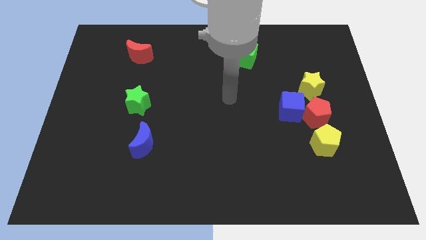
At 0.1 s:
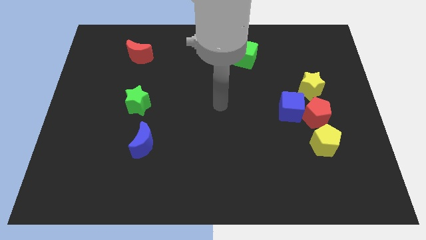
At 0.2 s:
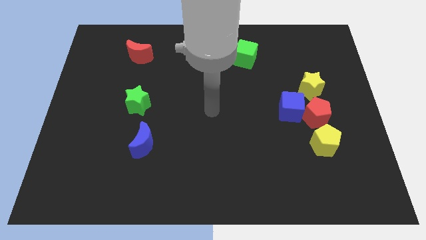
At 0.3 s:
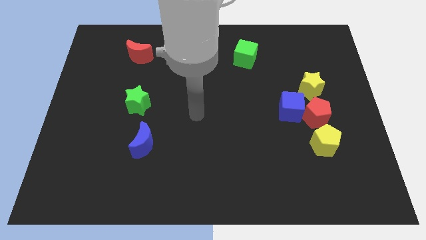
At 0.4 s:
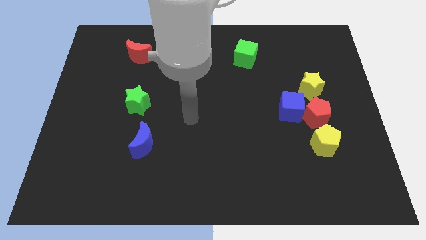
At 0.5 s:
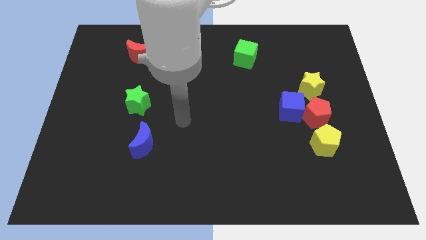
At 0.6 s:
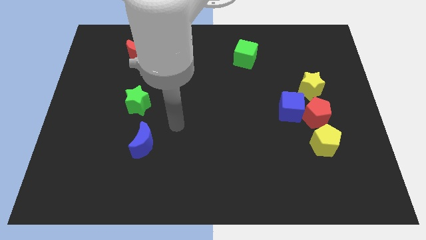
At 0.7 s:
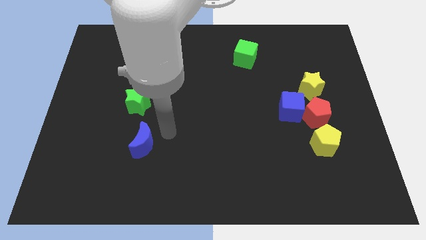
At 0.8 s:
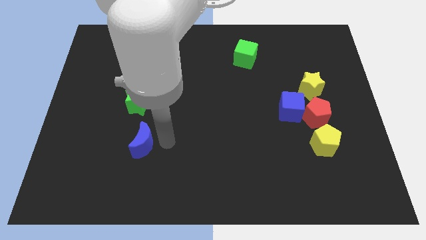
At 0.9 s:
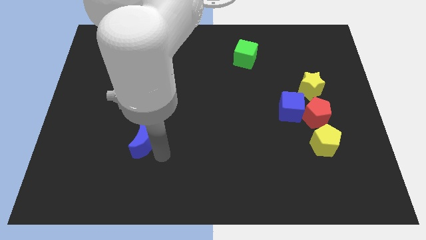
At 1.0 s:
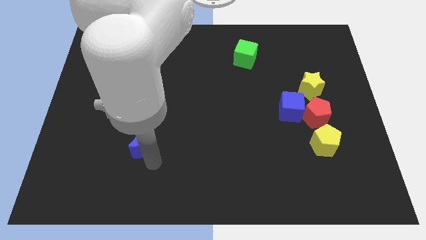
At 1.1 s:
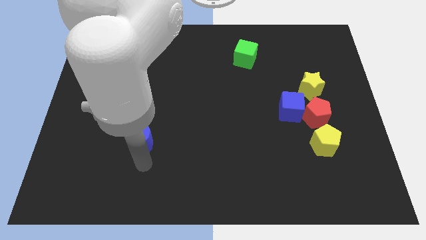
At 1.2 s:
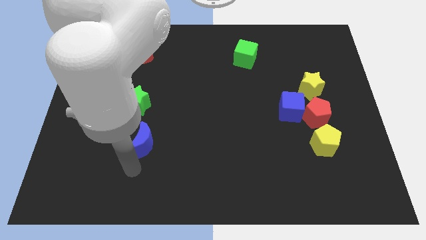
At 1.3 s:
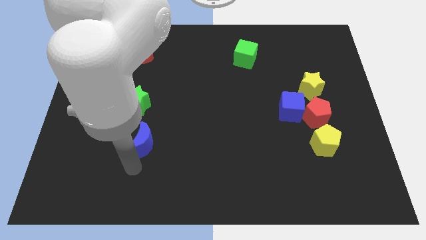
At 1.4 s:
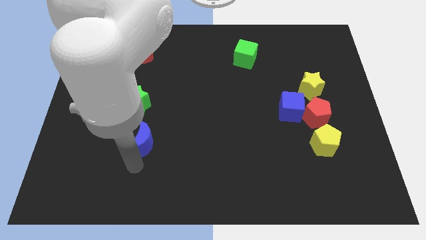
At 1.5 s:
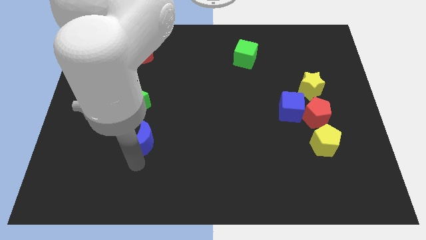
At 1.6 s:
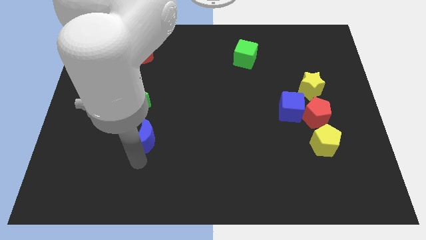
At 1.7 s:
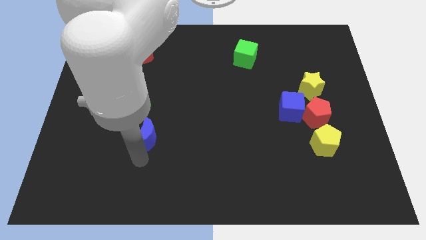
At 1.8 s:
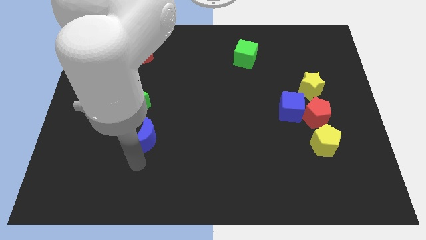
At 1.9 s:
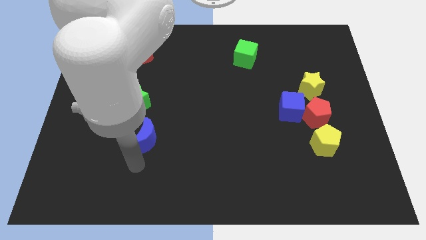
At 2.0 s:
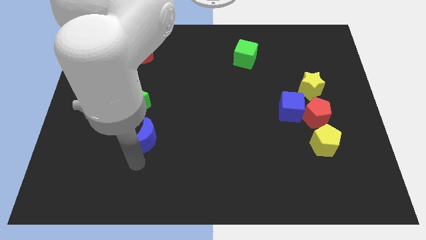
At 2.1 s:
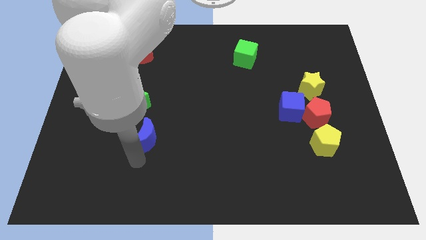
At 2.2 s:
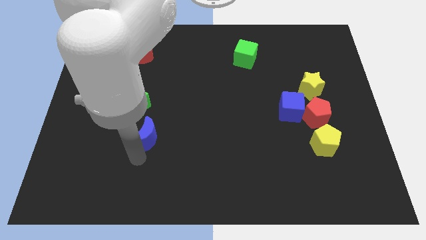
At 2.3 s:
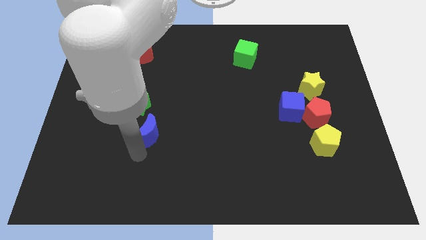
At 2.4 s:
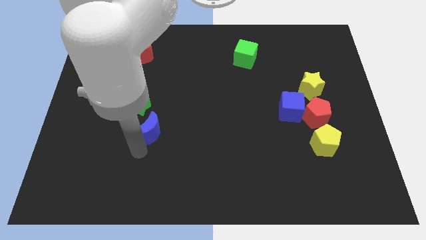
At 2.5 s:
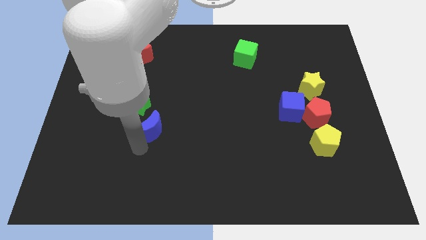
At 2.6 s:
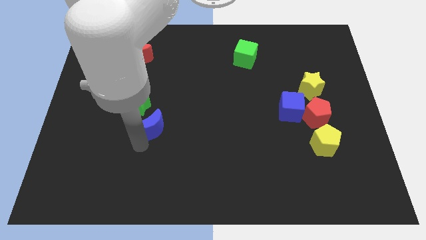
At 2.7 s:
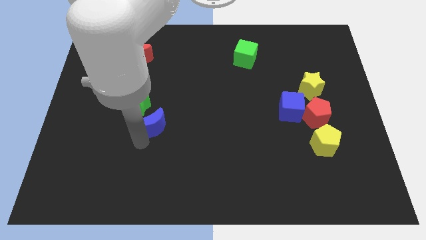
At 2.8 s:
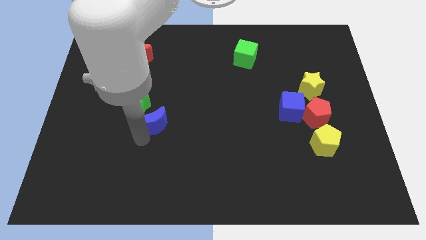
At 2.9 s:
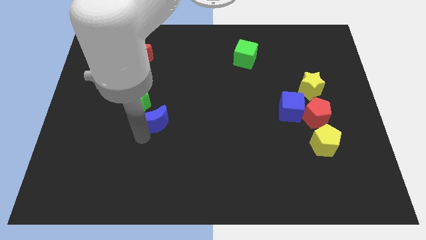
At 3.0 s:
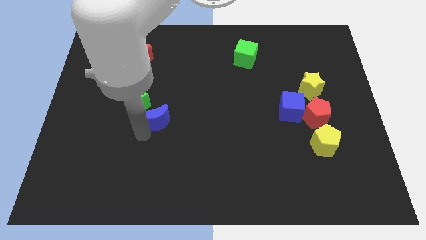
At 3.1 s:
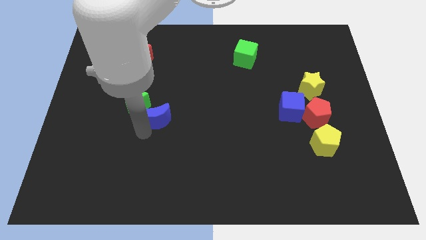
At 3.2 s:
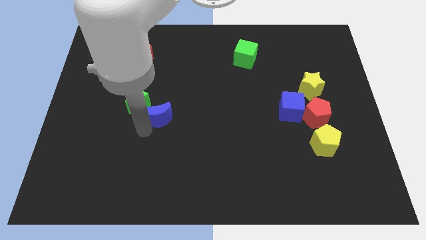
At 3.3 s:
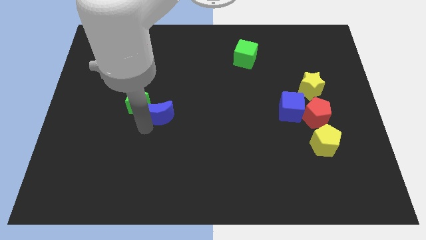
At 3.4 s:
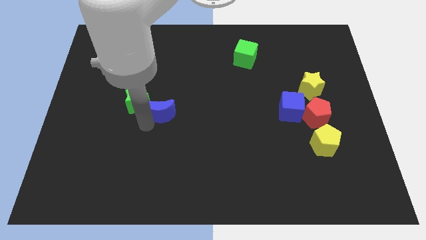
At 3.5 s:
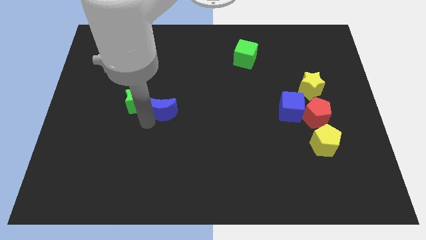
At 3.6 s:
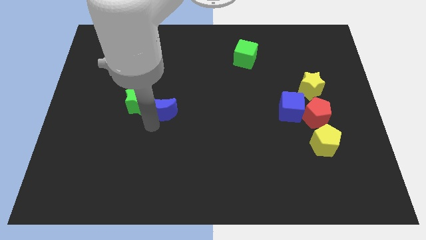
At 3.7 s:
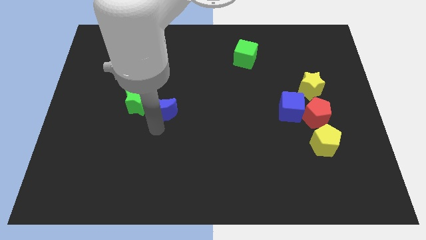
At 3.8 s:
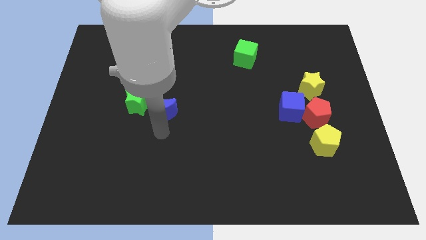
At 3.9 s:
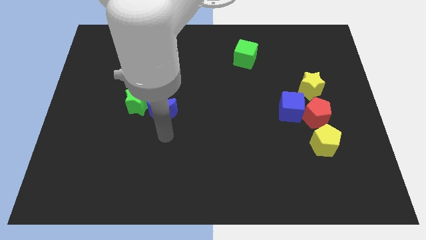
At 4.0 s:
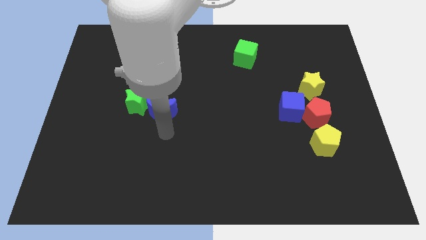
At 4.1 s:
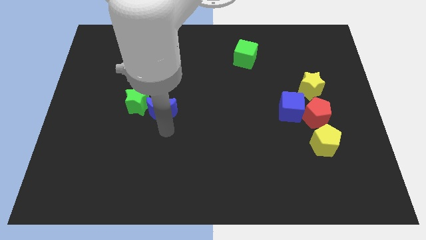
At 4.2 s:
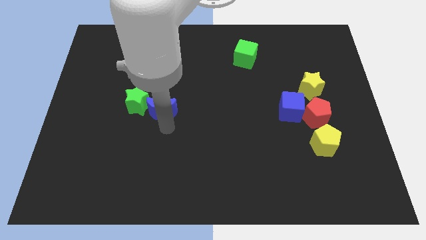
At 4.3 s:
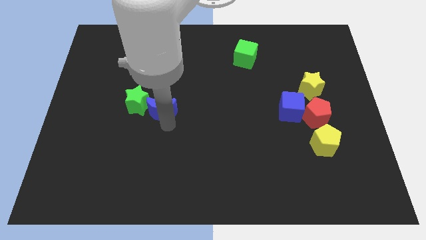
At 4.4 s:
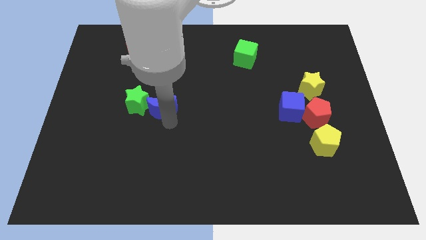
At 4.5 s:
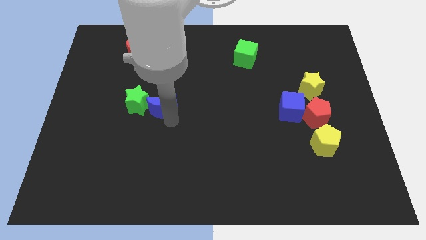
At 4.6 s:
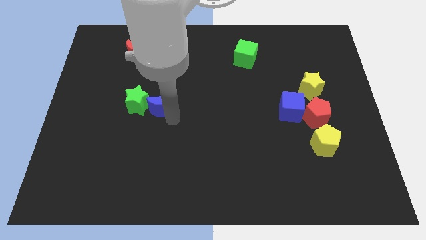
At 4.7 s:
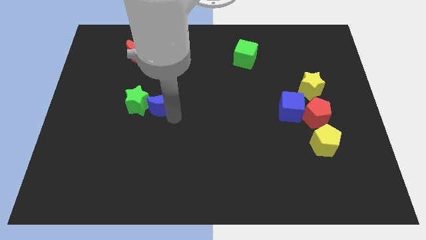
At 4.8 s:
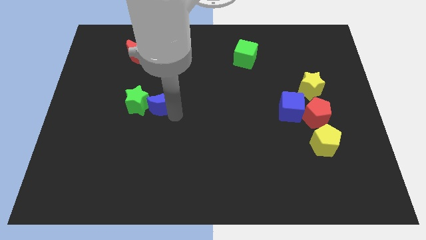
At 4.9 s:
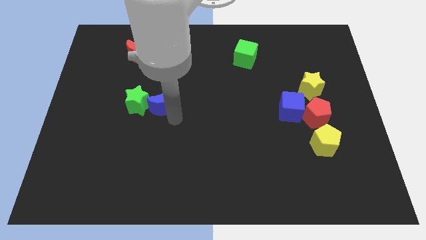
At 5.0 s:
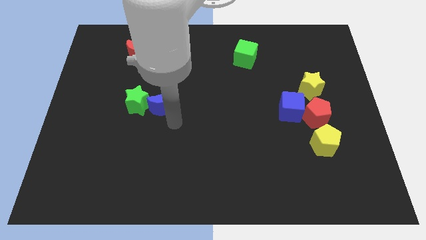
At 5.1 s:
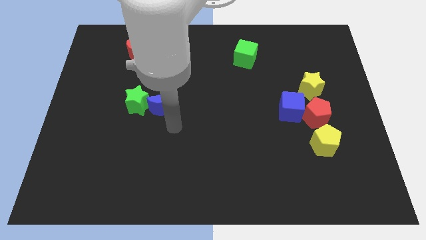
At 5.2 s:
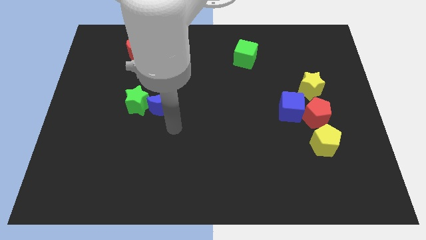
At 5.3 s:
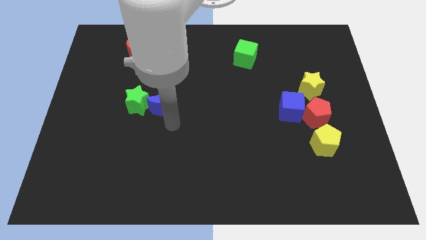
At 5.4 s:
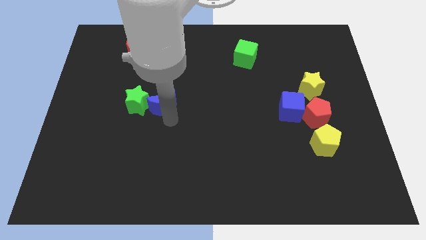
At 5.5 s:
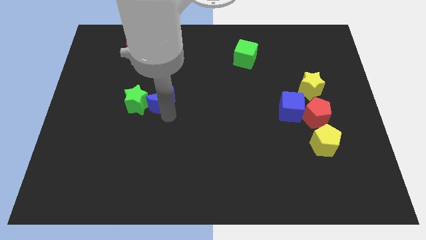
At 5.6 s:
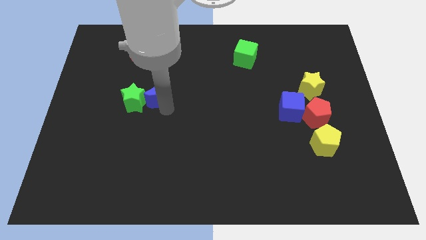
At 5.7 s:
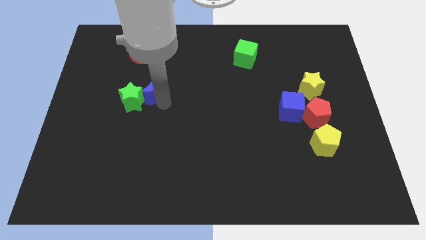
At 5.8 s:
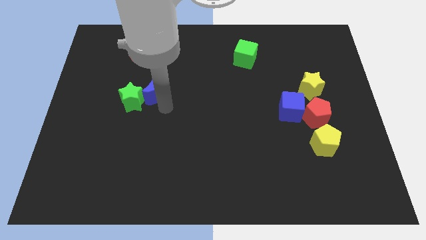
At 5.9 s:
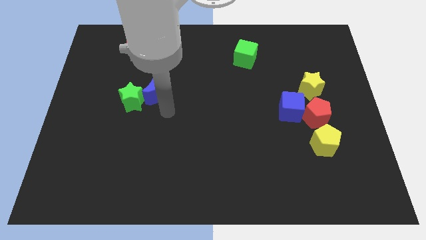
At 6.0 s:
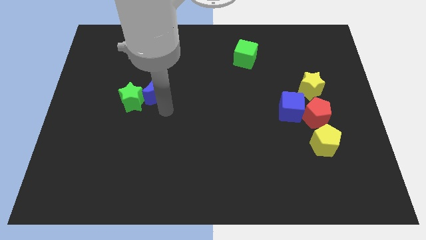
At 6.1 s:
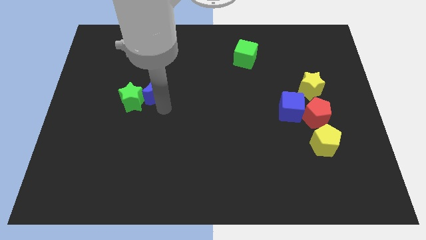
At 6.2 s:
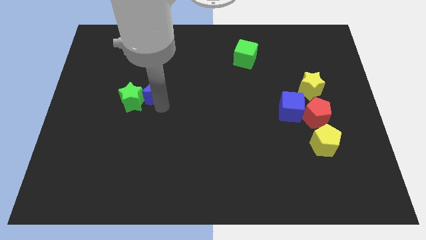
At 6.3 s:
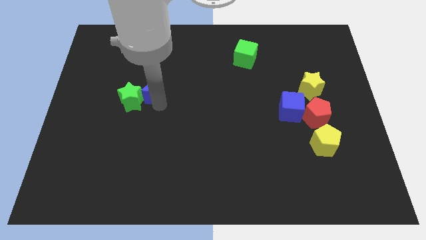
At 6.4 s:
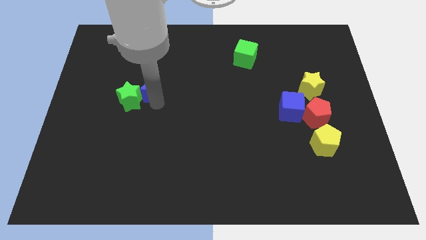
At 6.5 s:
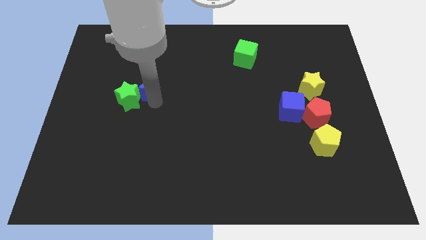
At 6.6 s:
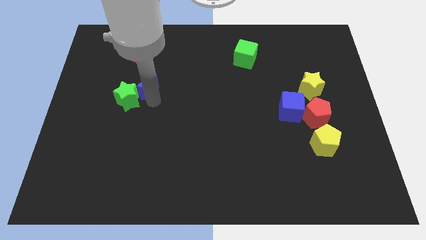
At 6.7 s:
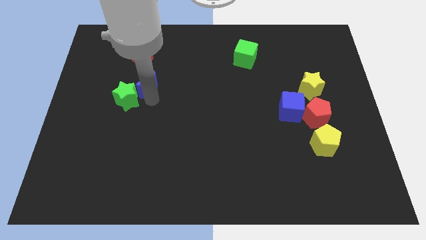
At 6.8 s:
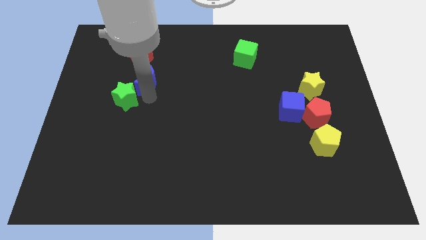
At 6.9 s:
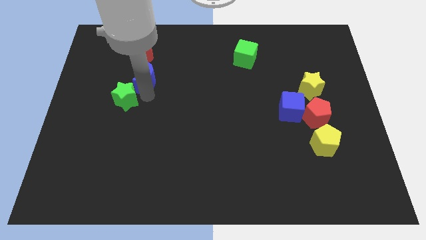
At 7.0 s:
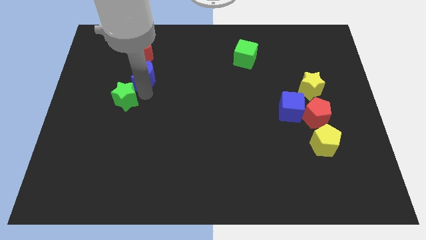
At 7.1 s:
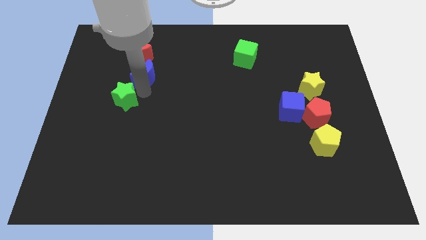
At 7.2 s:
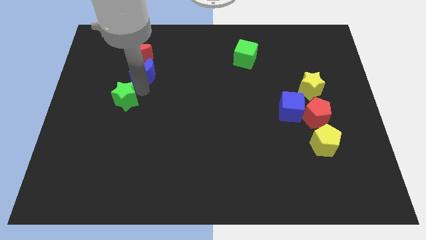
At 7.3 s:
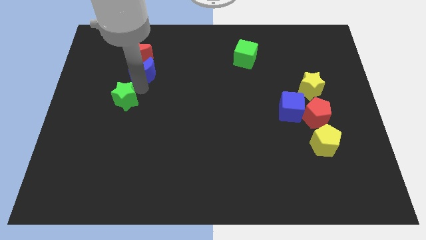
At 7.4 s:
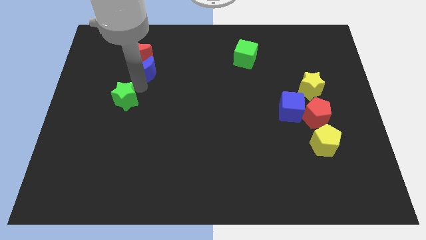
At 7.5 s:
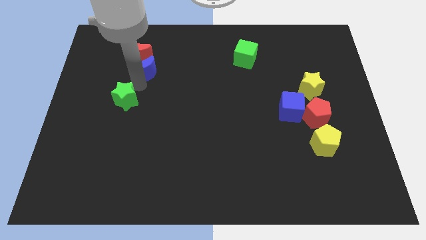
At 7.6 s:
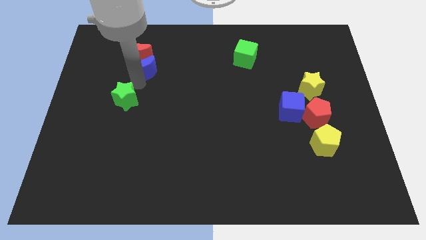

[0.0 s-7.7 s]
move the blue moon next to the red moon
